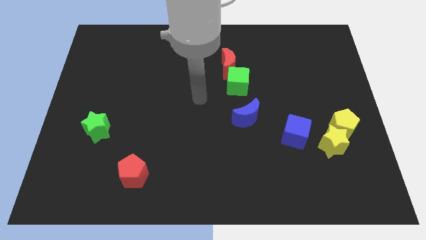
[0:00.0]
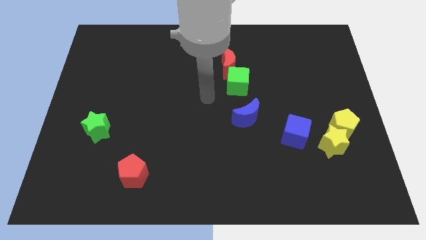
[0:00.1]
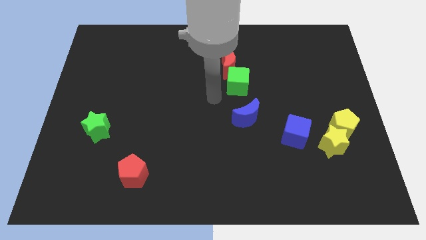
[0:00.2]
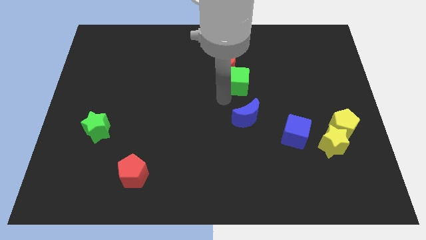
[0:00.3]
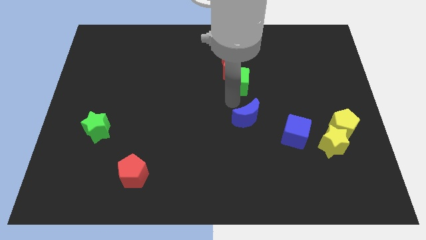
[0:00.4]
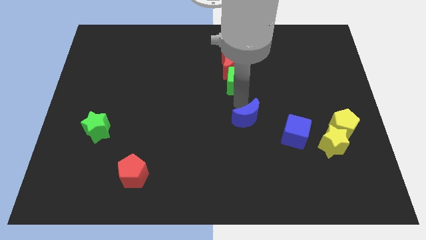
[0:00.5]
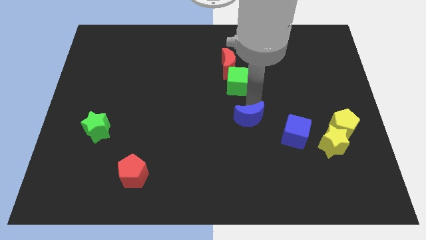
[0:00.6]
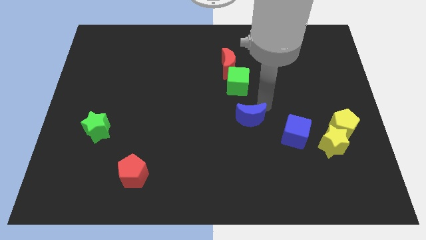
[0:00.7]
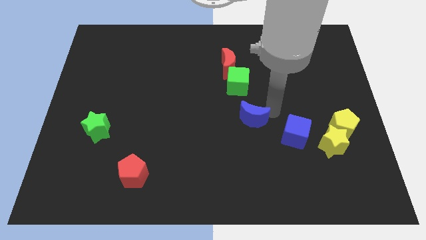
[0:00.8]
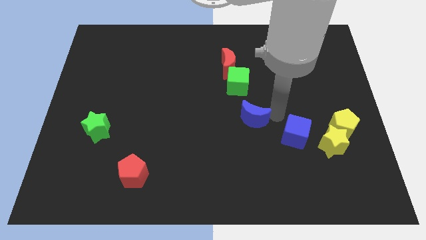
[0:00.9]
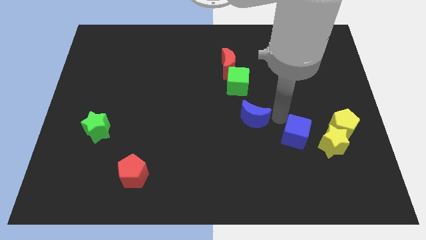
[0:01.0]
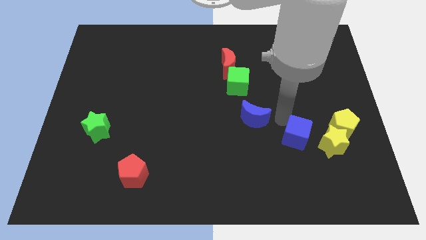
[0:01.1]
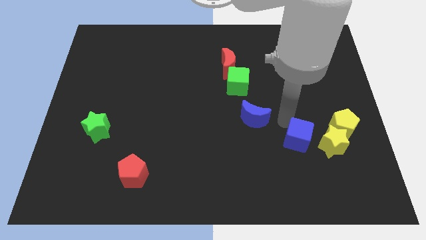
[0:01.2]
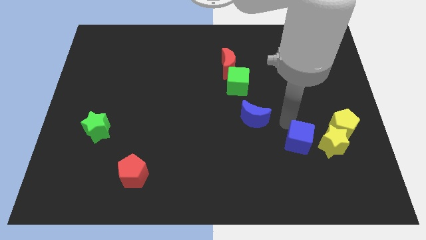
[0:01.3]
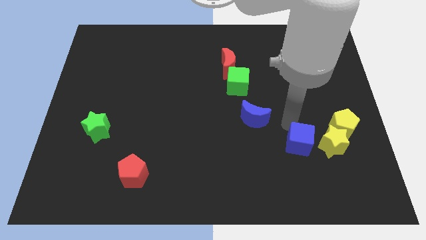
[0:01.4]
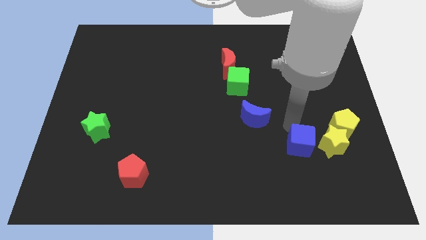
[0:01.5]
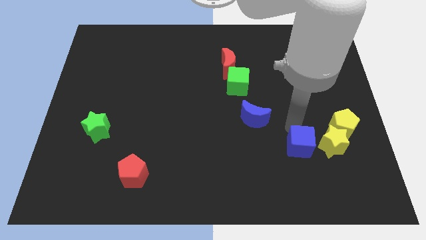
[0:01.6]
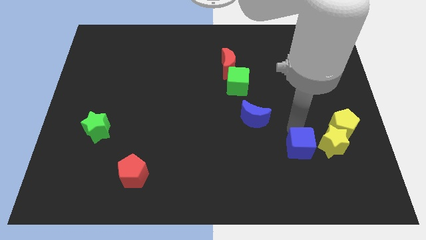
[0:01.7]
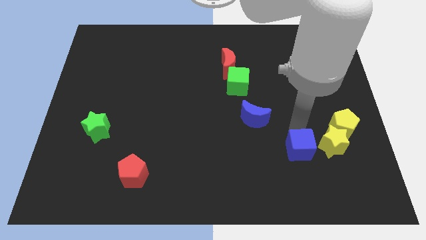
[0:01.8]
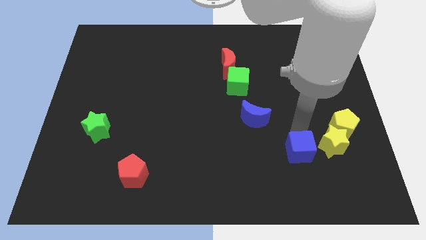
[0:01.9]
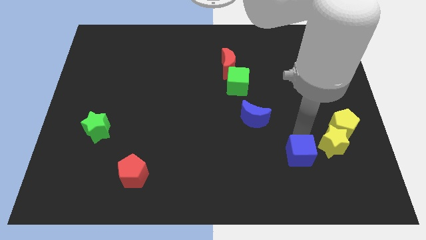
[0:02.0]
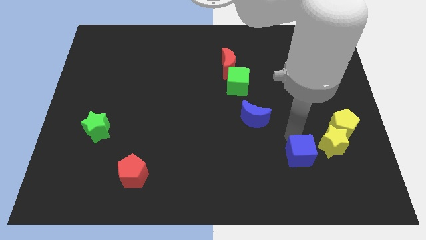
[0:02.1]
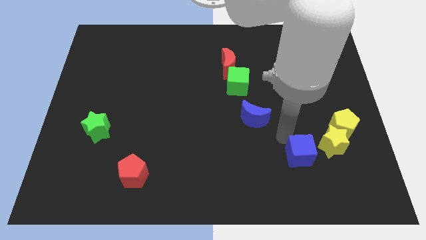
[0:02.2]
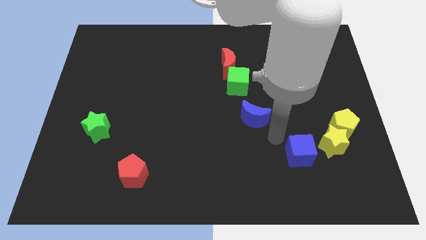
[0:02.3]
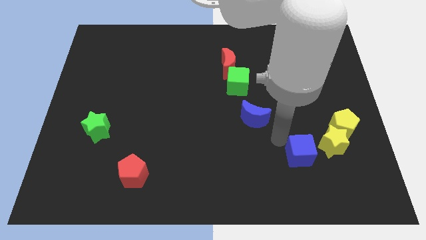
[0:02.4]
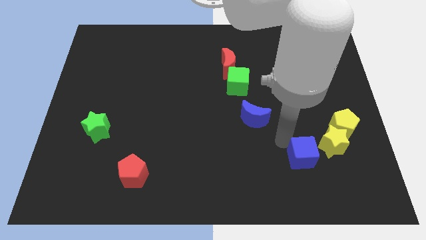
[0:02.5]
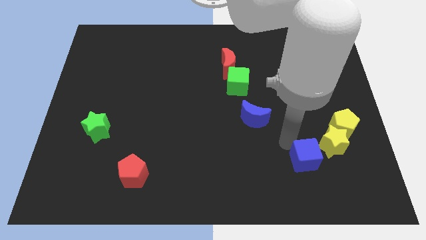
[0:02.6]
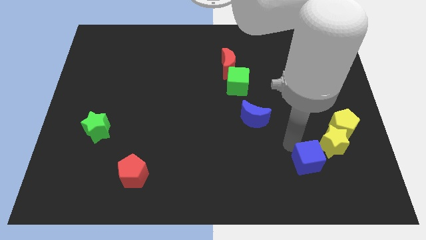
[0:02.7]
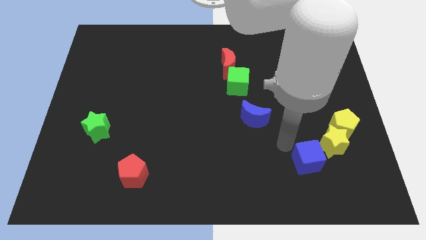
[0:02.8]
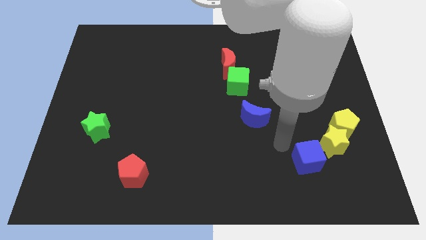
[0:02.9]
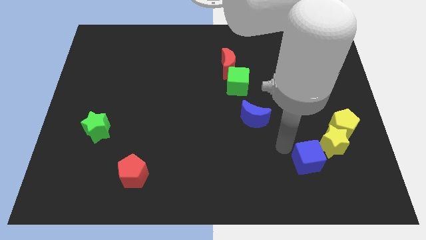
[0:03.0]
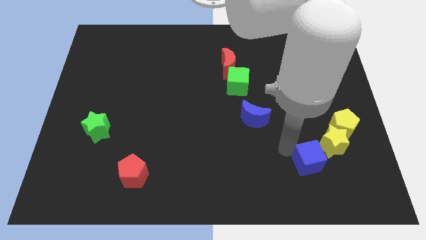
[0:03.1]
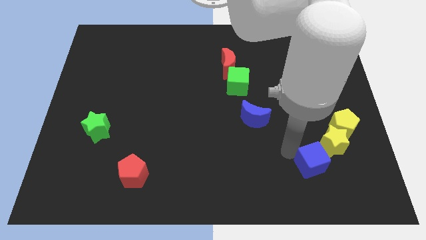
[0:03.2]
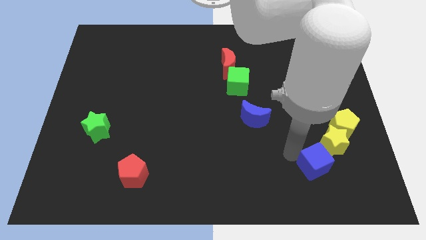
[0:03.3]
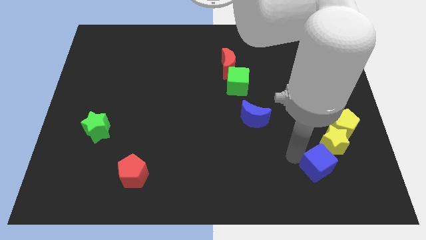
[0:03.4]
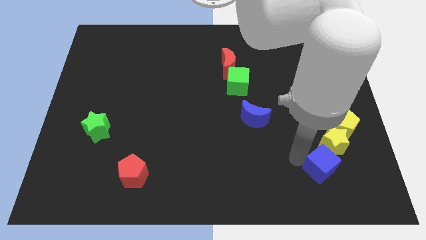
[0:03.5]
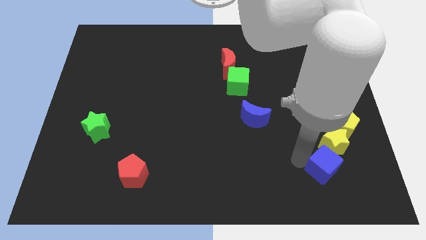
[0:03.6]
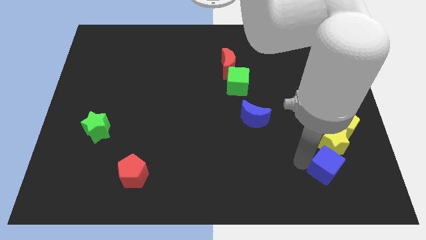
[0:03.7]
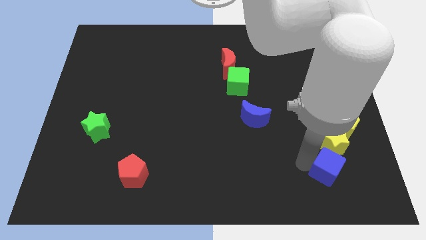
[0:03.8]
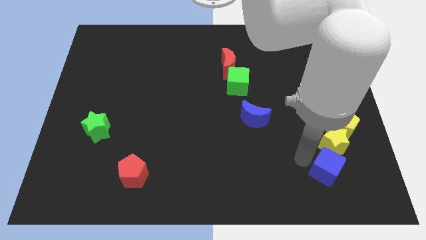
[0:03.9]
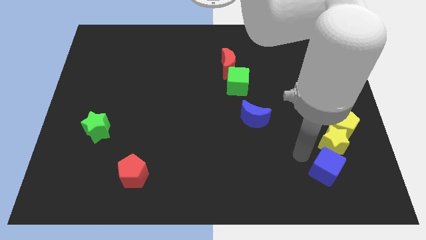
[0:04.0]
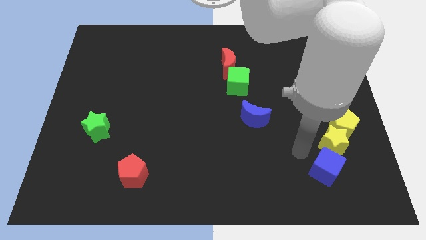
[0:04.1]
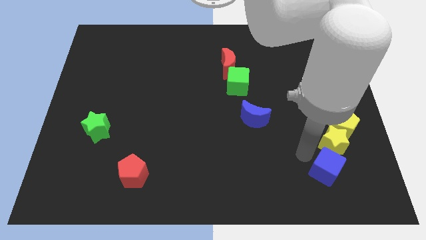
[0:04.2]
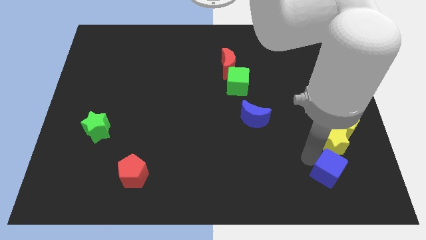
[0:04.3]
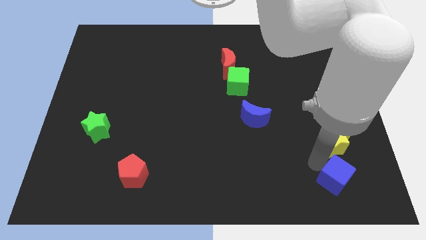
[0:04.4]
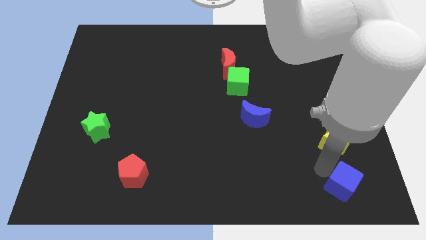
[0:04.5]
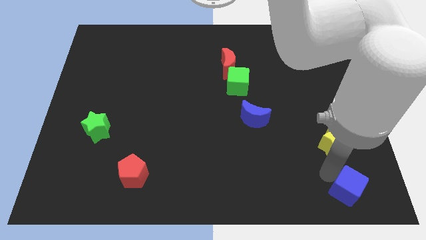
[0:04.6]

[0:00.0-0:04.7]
put the blue cube to the bottom right corner

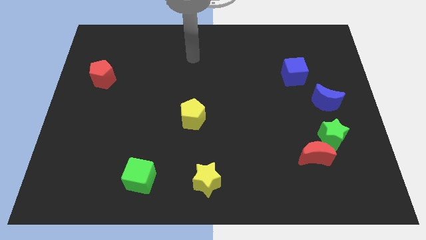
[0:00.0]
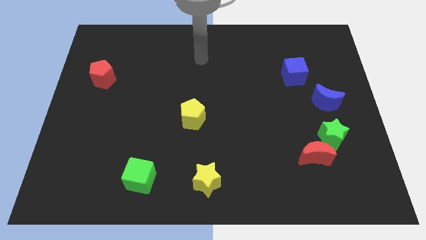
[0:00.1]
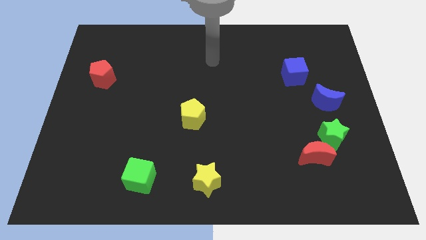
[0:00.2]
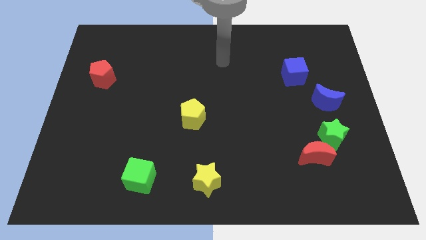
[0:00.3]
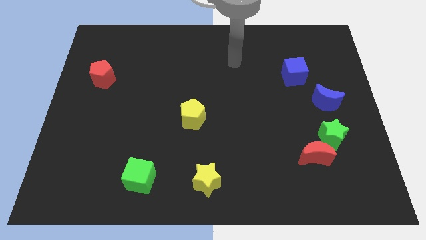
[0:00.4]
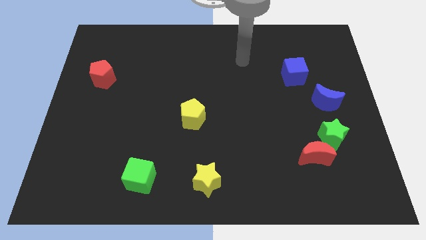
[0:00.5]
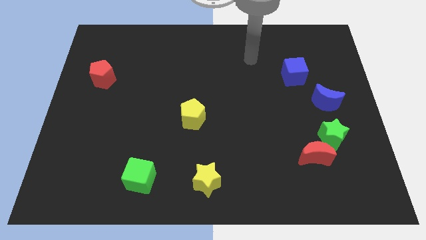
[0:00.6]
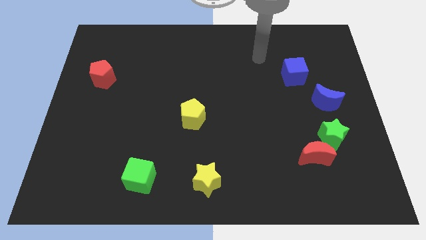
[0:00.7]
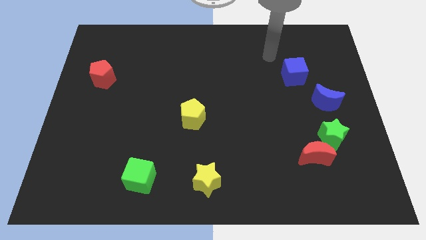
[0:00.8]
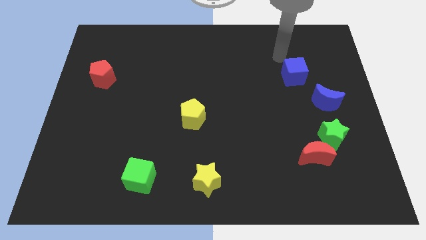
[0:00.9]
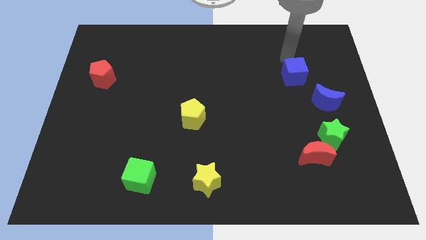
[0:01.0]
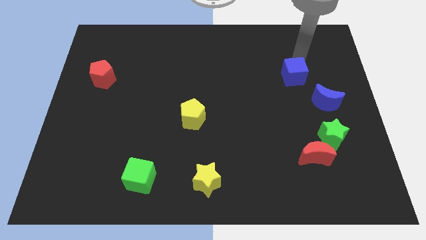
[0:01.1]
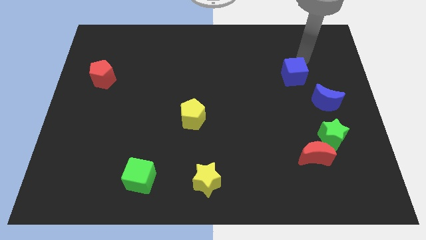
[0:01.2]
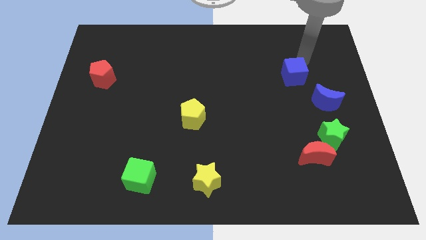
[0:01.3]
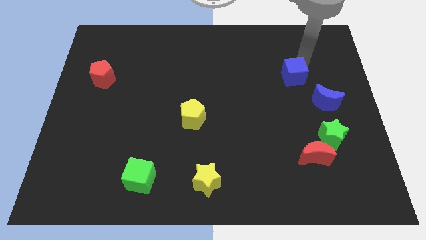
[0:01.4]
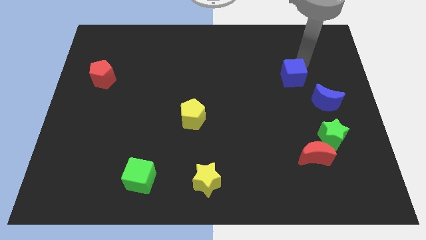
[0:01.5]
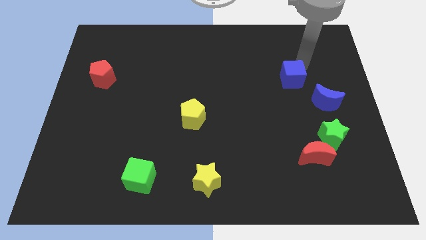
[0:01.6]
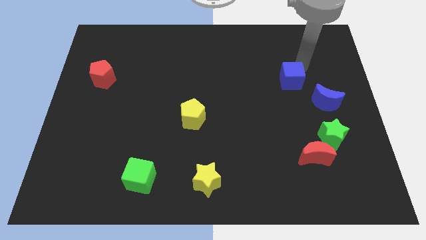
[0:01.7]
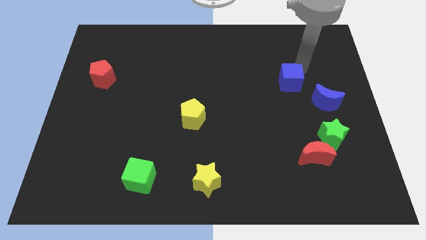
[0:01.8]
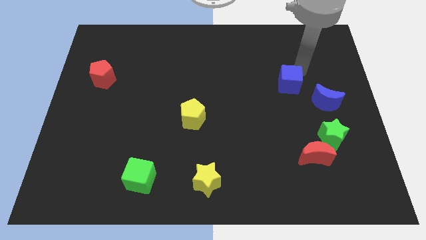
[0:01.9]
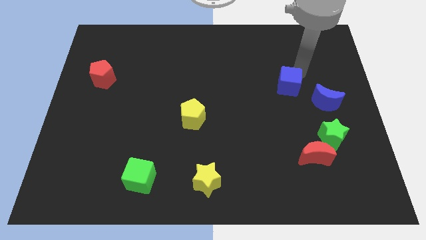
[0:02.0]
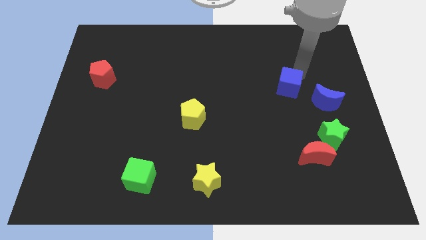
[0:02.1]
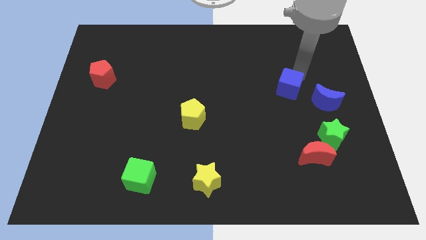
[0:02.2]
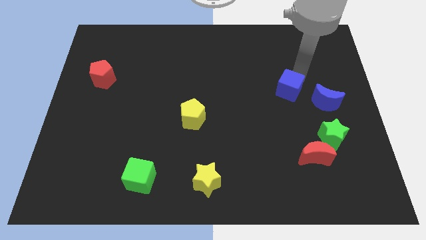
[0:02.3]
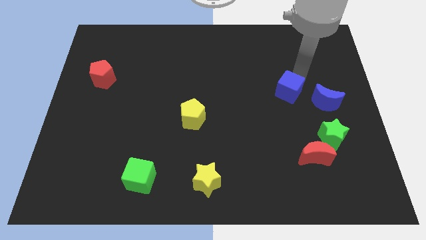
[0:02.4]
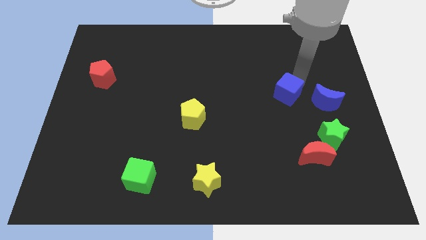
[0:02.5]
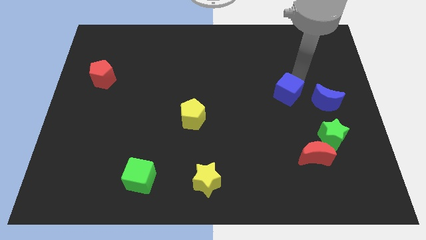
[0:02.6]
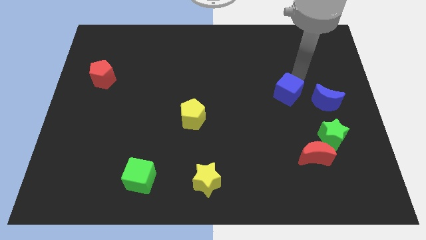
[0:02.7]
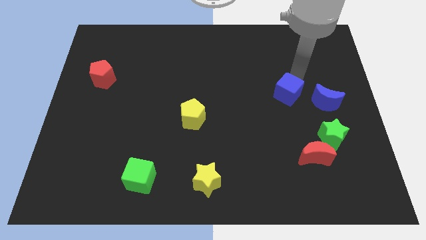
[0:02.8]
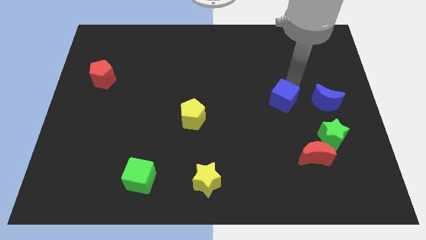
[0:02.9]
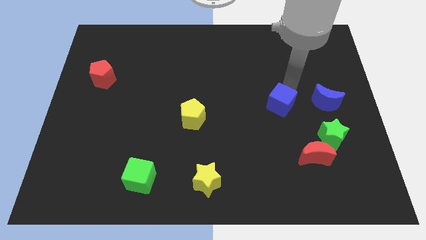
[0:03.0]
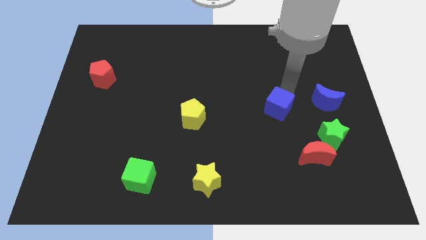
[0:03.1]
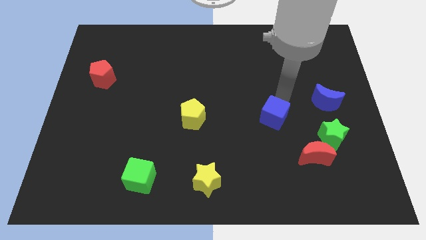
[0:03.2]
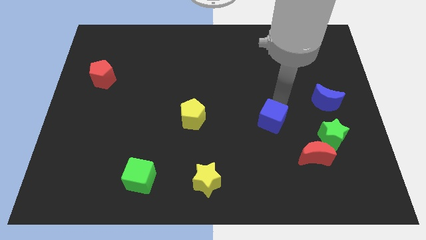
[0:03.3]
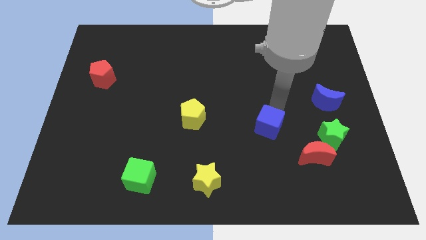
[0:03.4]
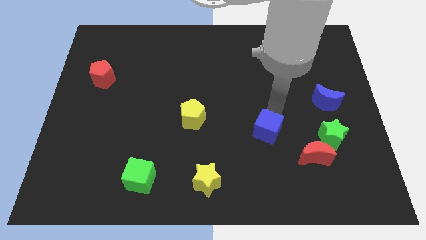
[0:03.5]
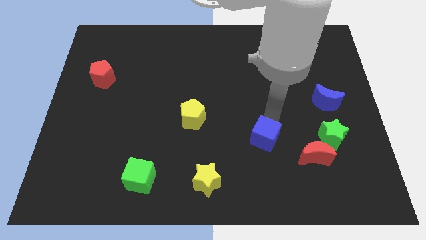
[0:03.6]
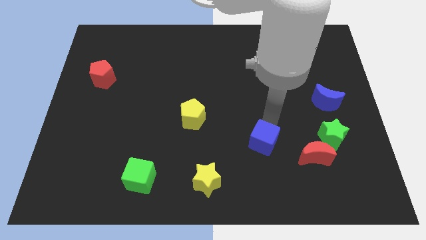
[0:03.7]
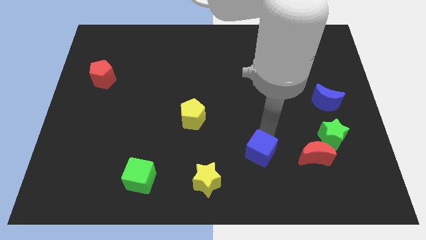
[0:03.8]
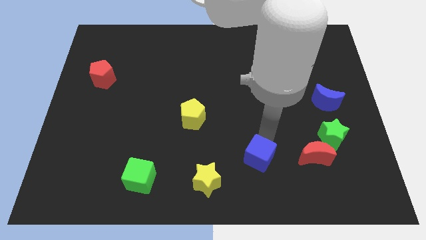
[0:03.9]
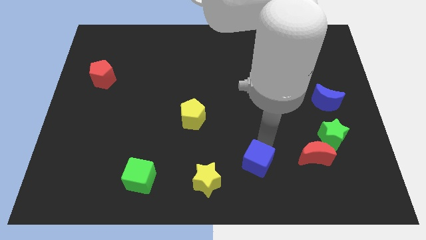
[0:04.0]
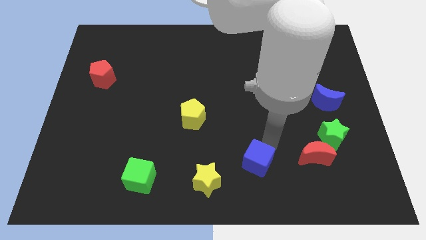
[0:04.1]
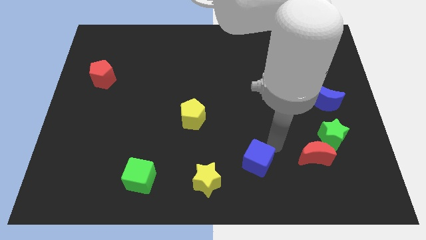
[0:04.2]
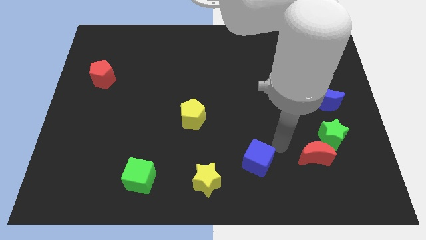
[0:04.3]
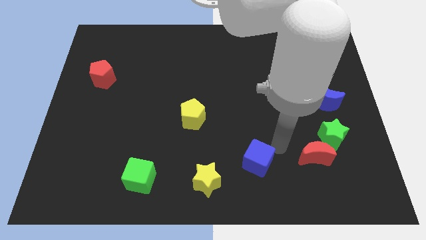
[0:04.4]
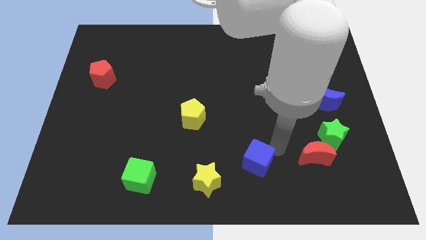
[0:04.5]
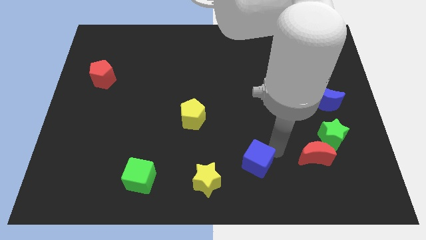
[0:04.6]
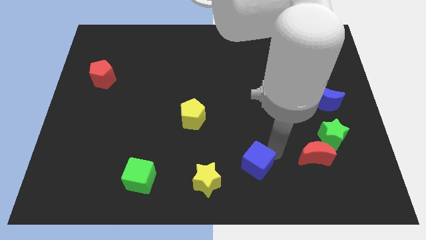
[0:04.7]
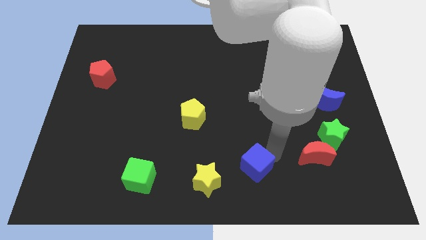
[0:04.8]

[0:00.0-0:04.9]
slide the blue cube to the bottom side
